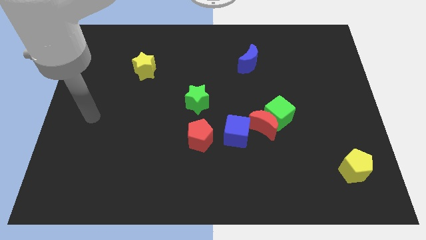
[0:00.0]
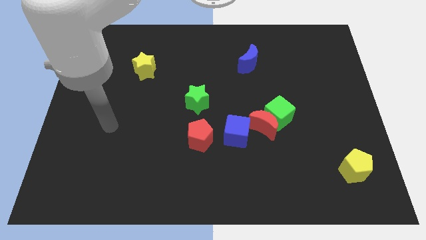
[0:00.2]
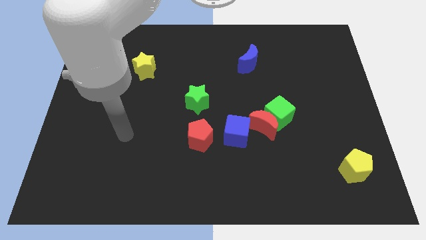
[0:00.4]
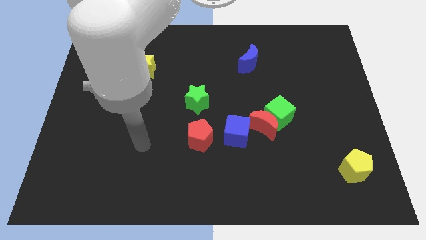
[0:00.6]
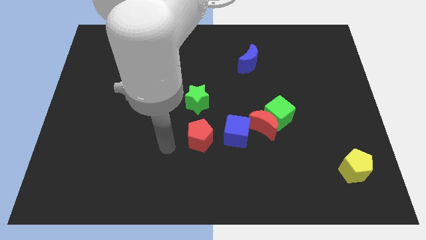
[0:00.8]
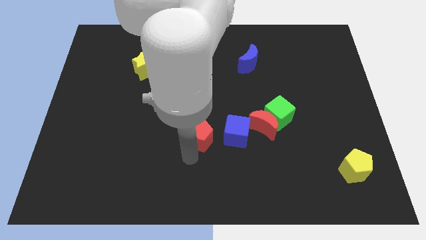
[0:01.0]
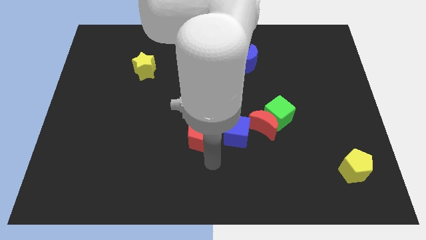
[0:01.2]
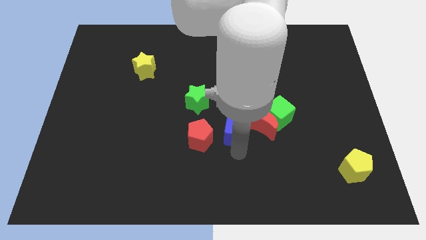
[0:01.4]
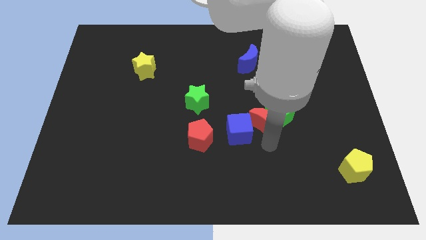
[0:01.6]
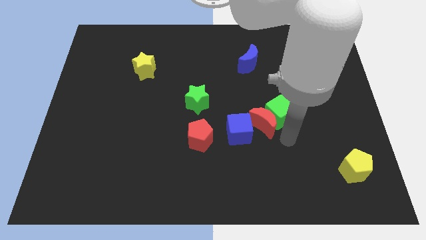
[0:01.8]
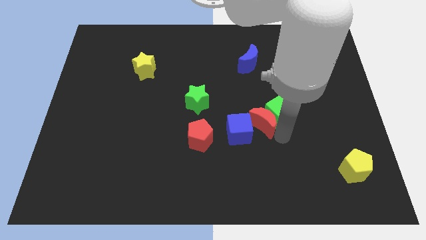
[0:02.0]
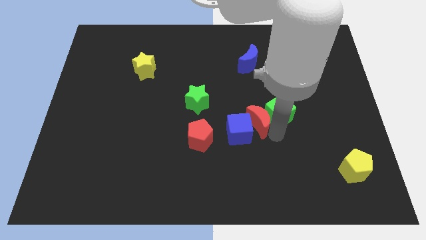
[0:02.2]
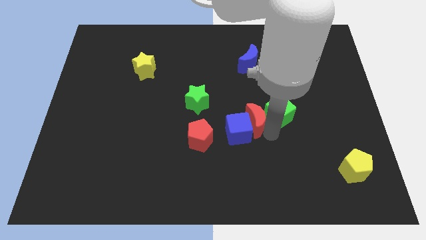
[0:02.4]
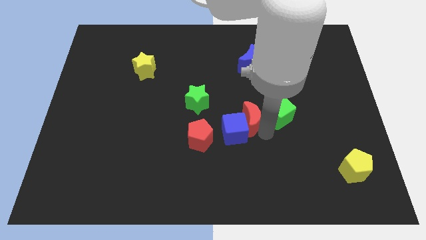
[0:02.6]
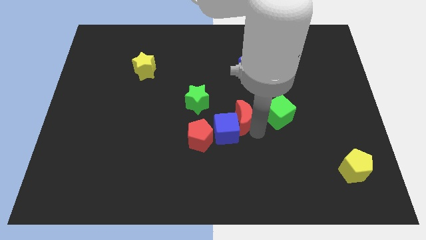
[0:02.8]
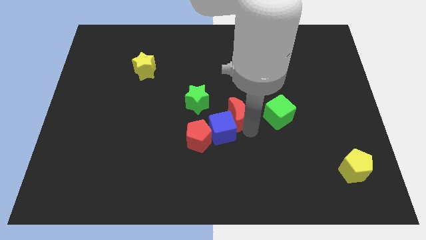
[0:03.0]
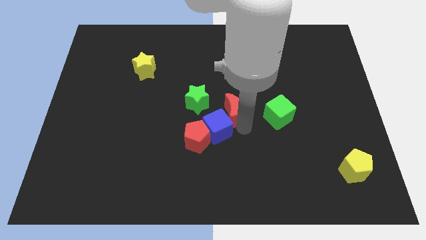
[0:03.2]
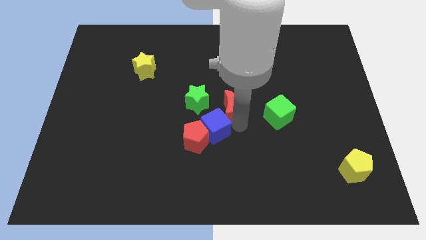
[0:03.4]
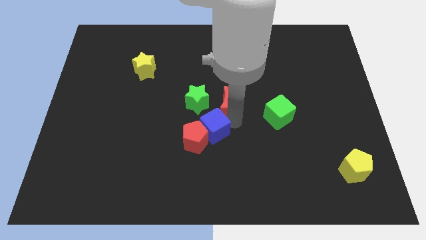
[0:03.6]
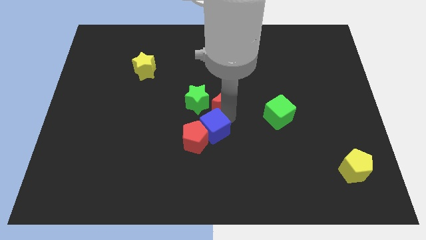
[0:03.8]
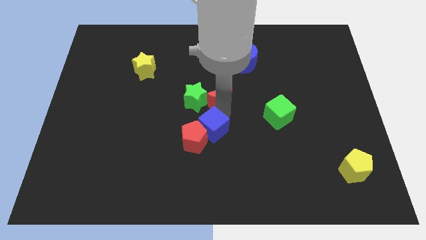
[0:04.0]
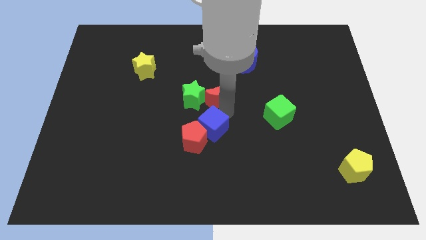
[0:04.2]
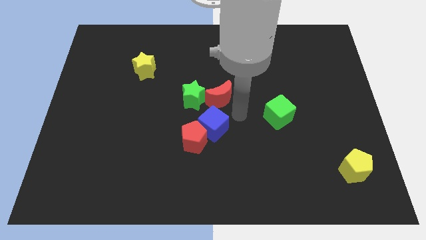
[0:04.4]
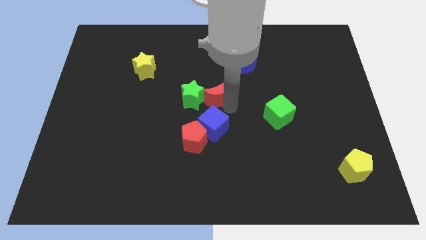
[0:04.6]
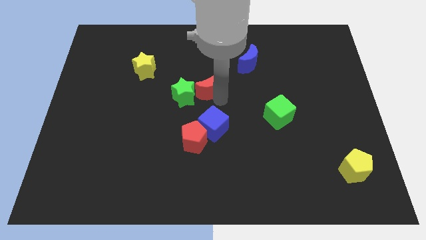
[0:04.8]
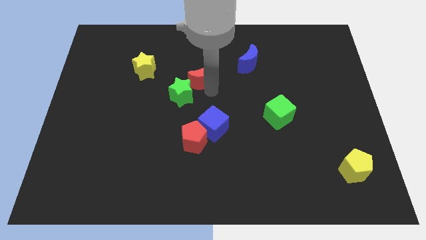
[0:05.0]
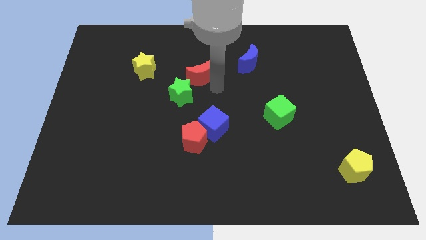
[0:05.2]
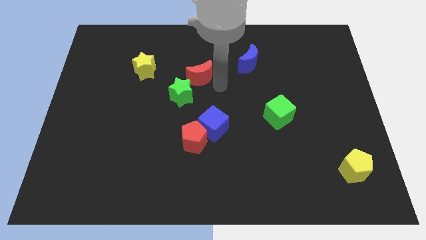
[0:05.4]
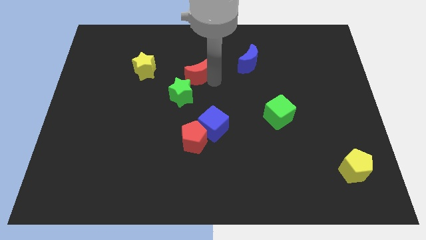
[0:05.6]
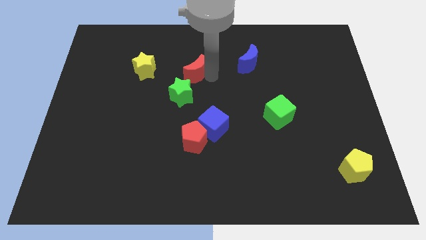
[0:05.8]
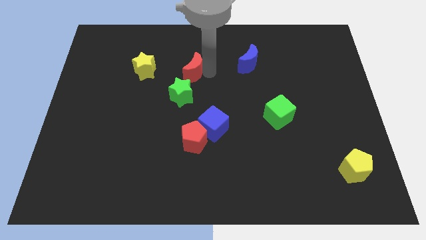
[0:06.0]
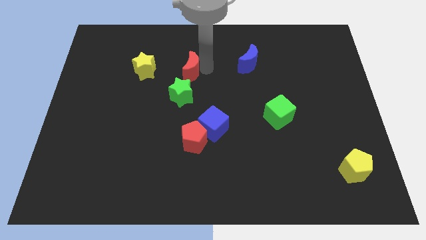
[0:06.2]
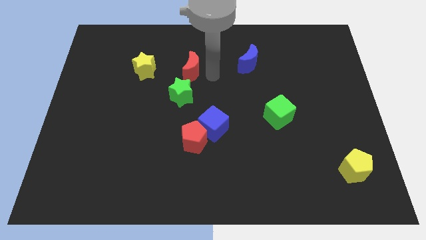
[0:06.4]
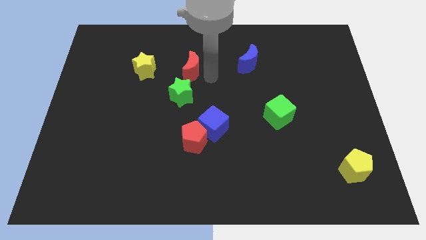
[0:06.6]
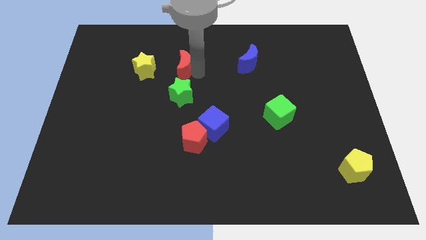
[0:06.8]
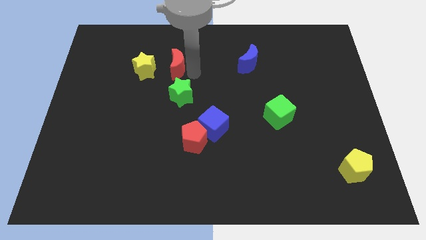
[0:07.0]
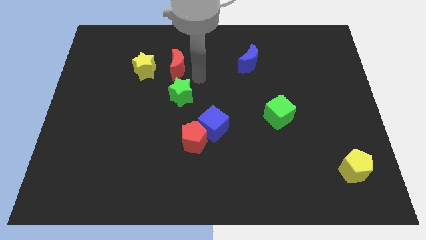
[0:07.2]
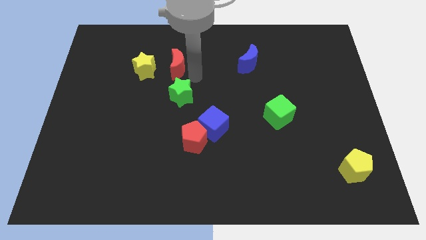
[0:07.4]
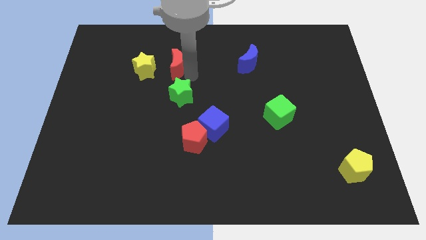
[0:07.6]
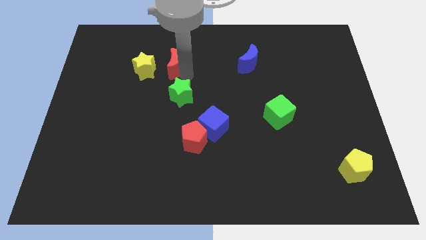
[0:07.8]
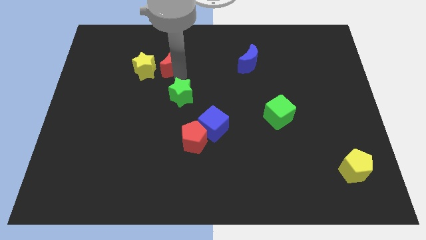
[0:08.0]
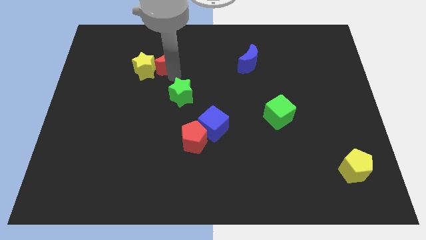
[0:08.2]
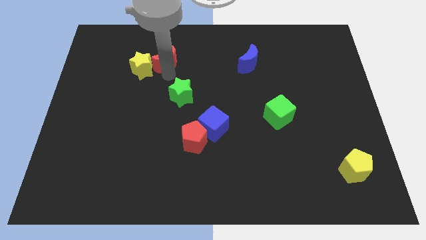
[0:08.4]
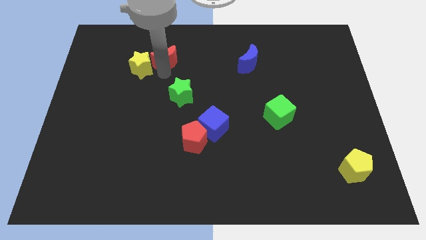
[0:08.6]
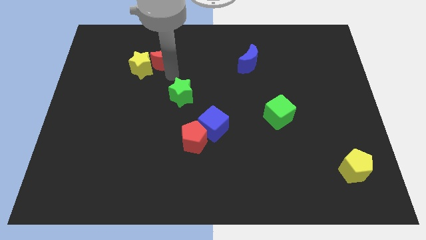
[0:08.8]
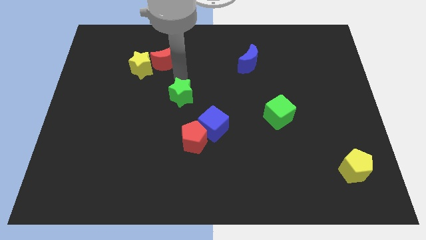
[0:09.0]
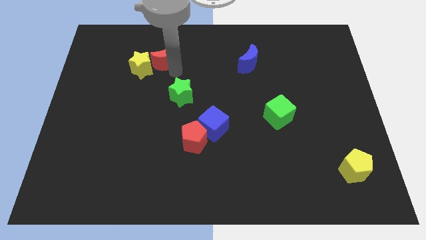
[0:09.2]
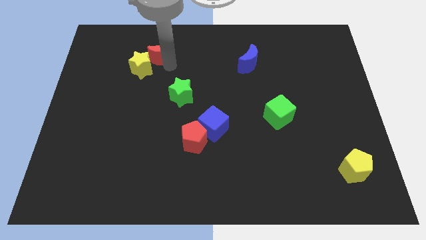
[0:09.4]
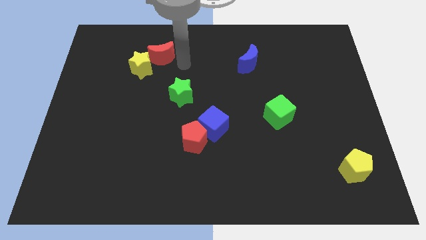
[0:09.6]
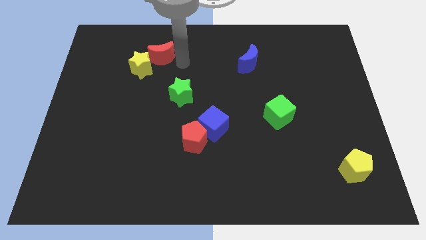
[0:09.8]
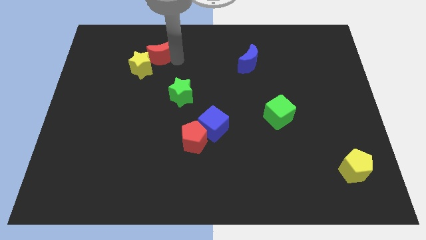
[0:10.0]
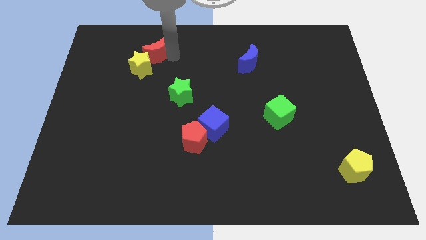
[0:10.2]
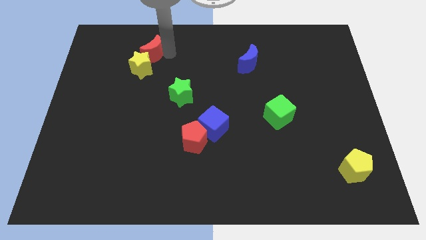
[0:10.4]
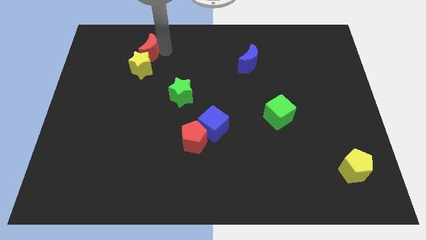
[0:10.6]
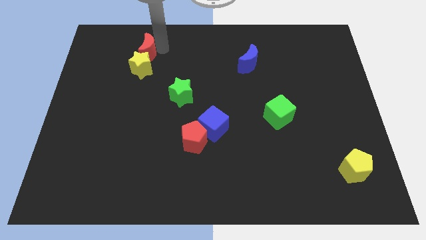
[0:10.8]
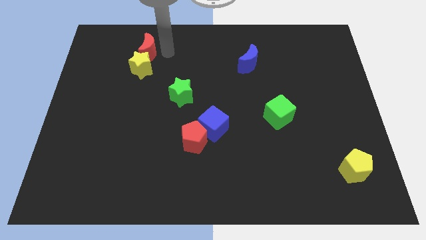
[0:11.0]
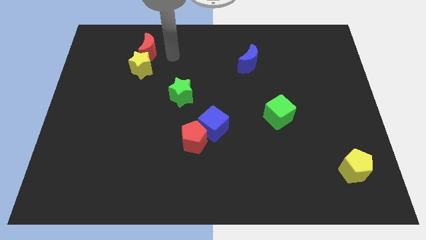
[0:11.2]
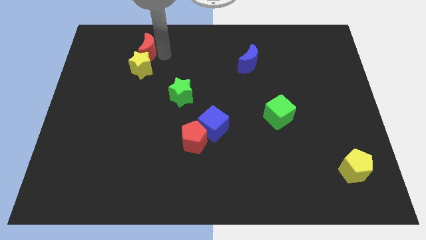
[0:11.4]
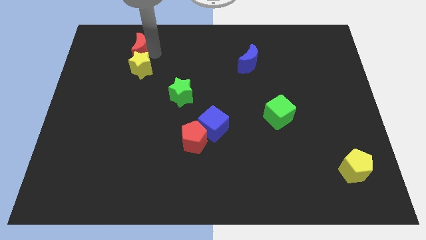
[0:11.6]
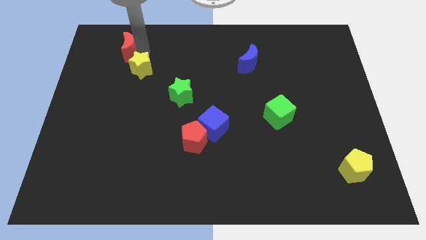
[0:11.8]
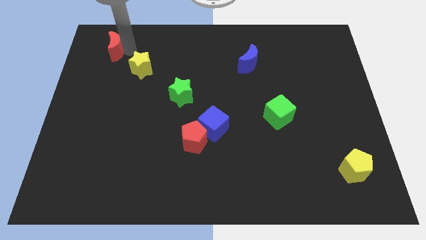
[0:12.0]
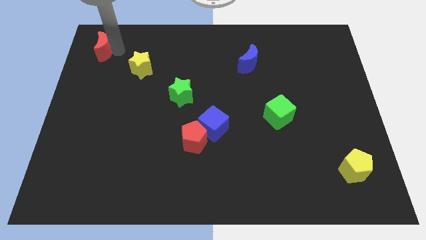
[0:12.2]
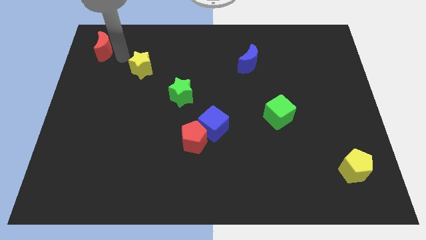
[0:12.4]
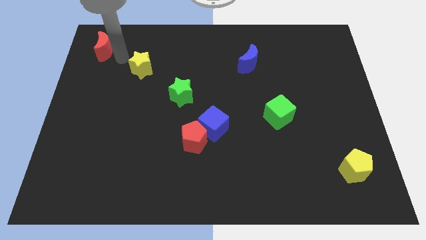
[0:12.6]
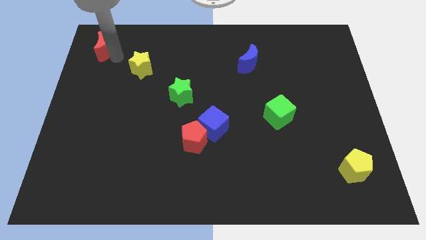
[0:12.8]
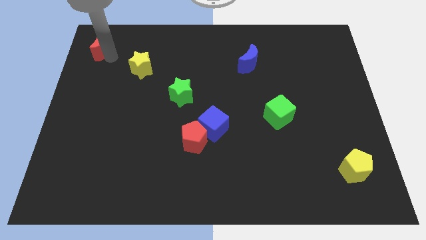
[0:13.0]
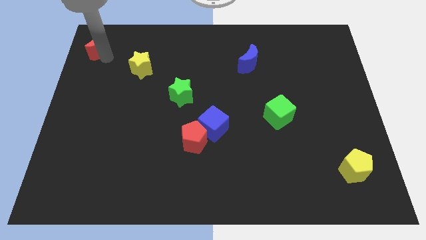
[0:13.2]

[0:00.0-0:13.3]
put the red moon to the top left corner
